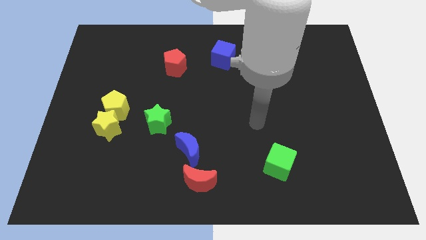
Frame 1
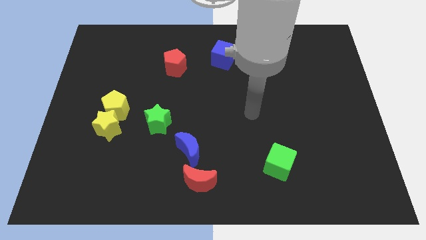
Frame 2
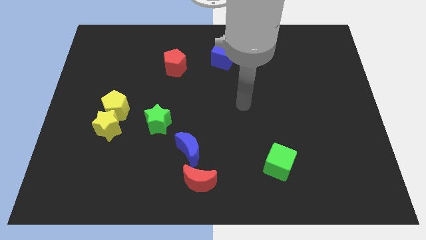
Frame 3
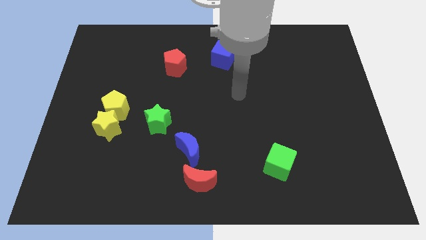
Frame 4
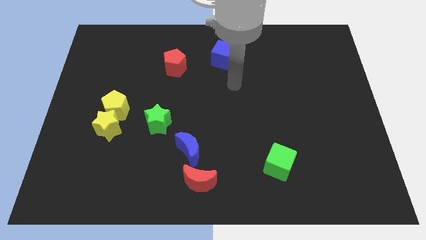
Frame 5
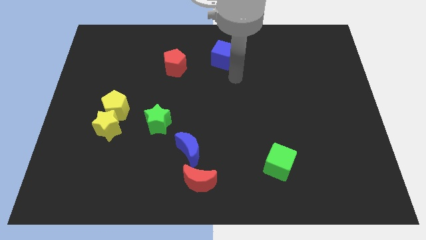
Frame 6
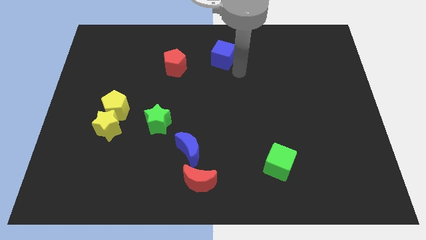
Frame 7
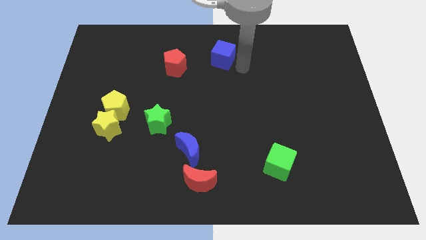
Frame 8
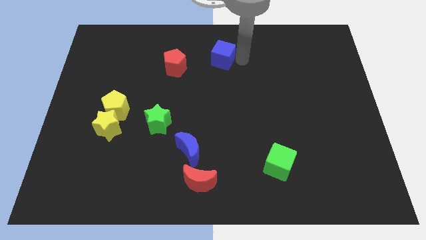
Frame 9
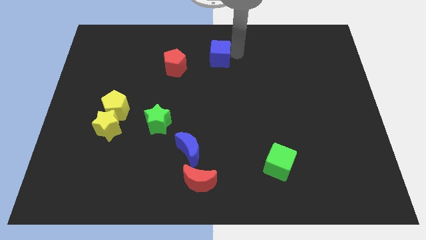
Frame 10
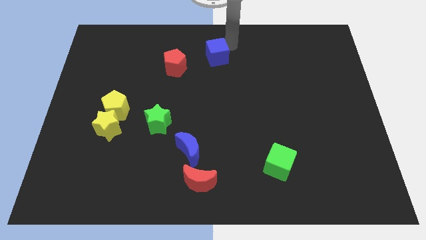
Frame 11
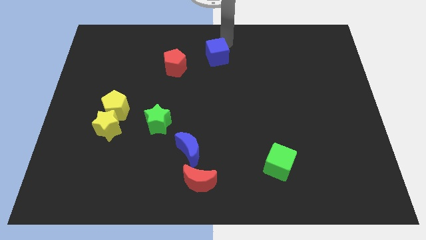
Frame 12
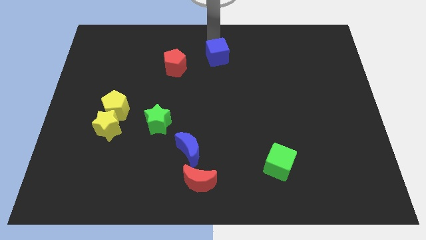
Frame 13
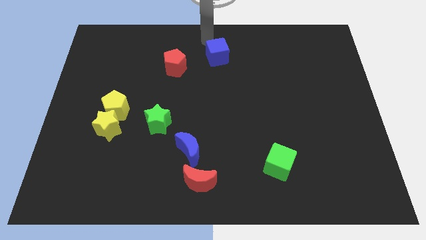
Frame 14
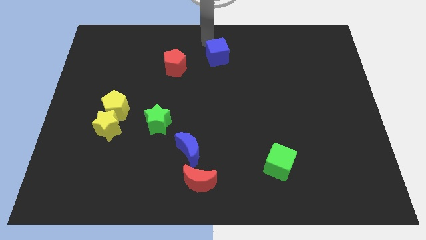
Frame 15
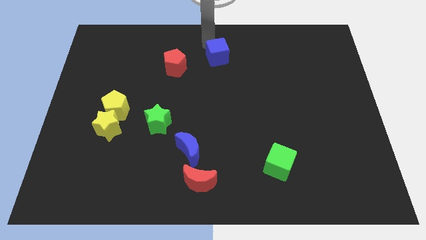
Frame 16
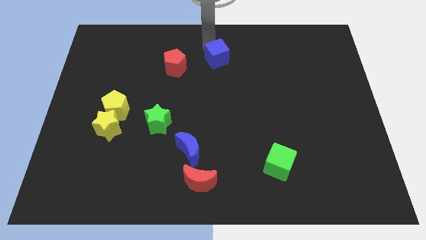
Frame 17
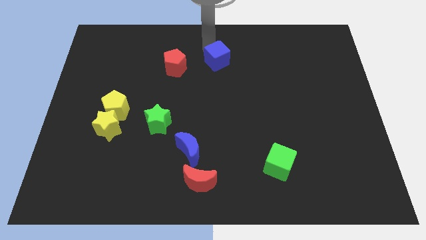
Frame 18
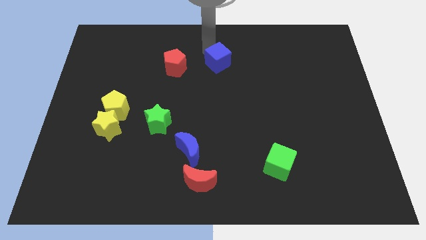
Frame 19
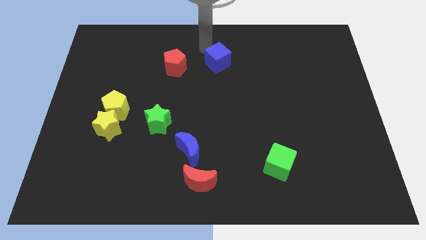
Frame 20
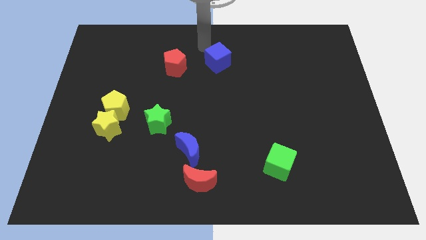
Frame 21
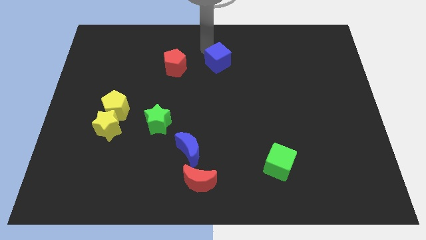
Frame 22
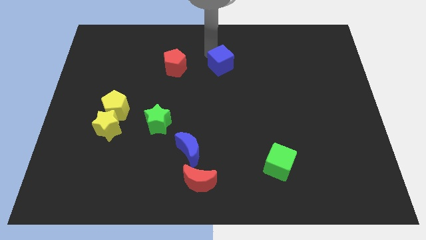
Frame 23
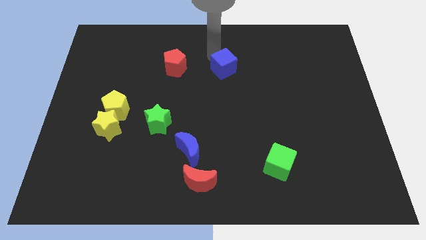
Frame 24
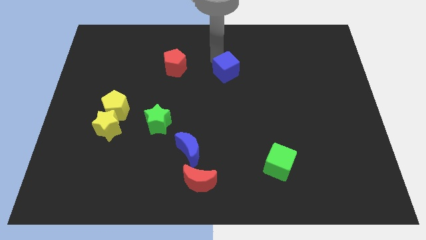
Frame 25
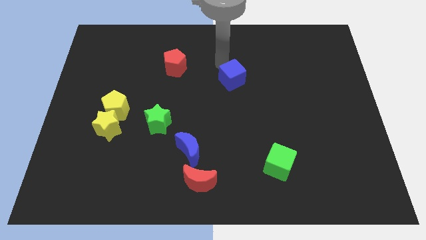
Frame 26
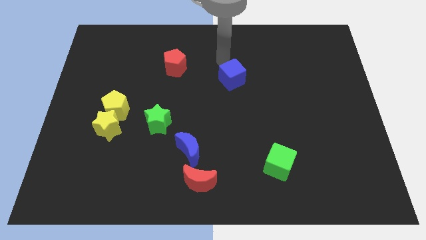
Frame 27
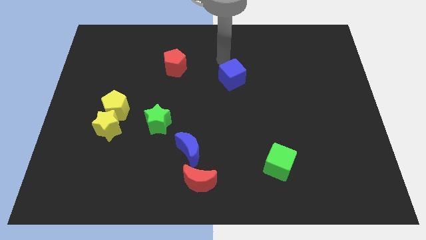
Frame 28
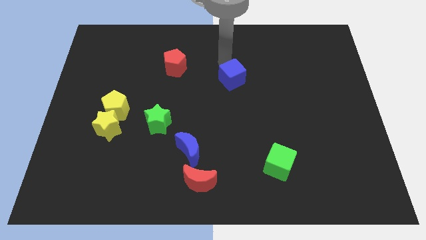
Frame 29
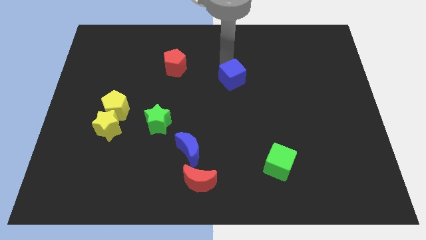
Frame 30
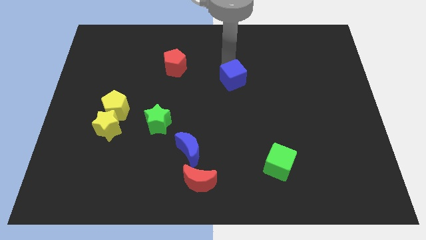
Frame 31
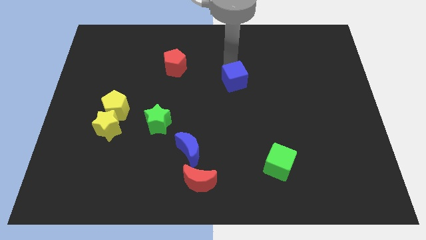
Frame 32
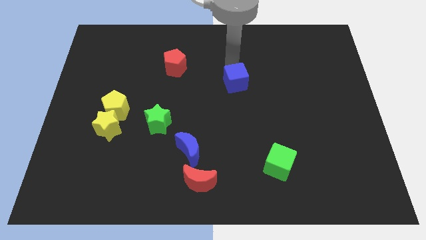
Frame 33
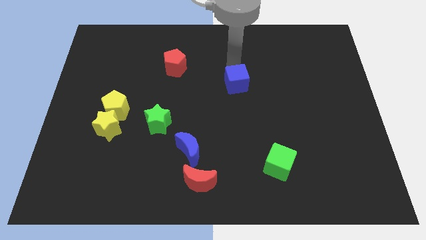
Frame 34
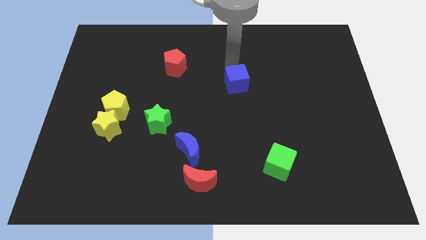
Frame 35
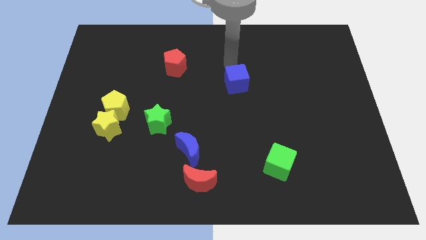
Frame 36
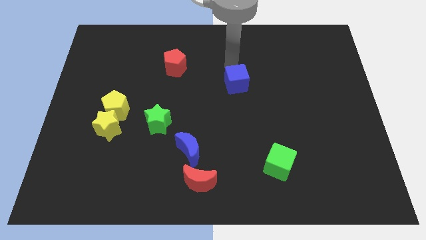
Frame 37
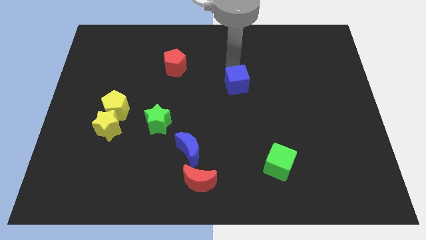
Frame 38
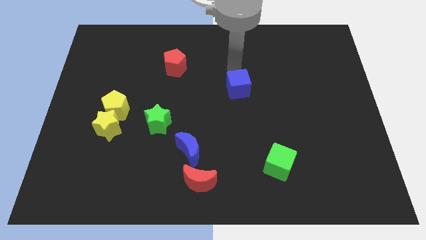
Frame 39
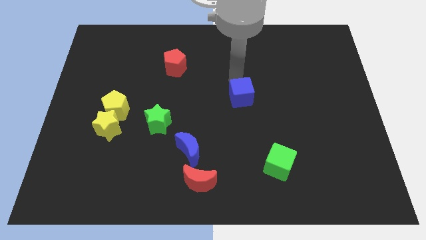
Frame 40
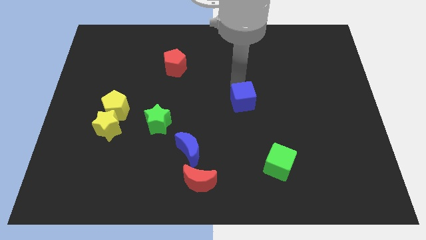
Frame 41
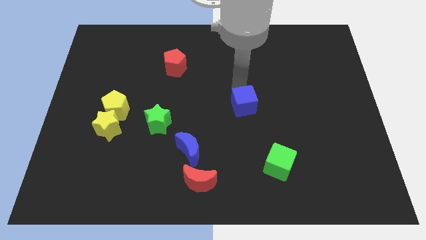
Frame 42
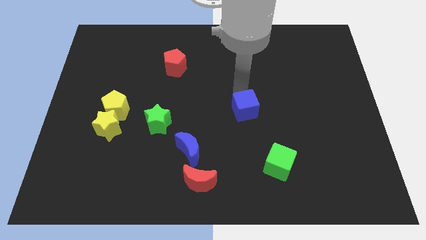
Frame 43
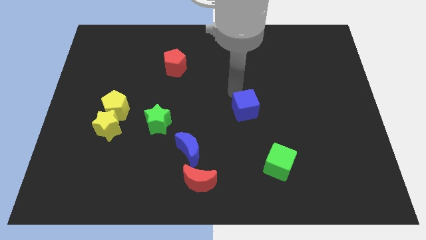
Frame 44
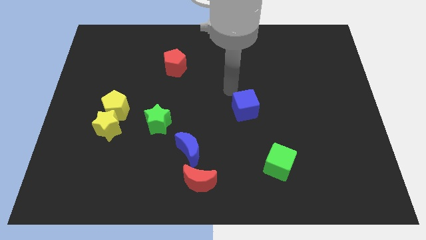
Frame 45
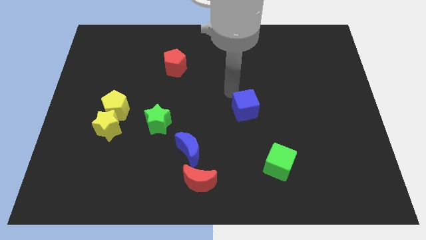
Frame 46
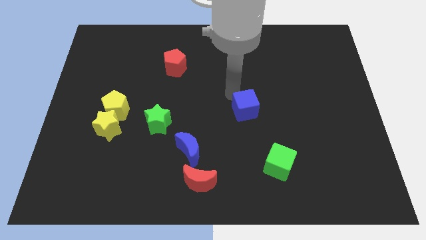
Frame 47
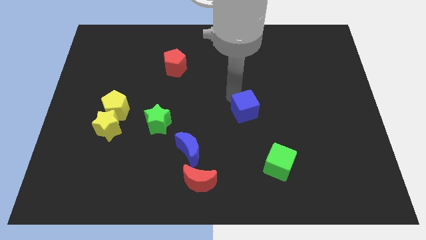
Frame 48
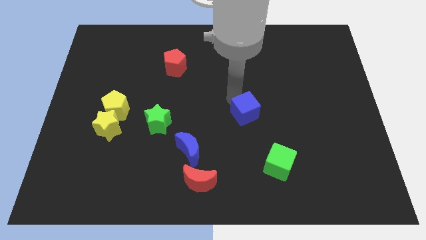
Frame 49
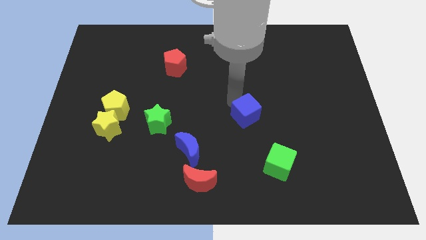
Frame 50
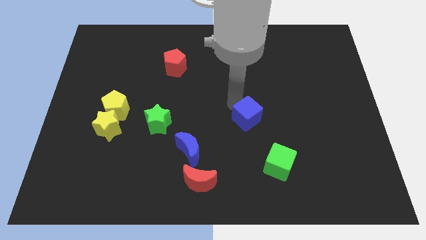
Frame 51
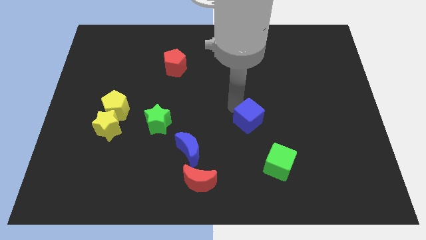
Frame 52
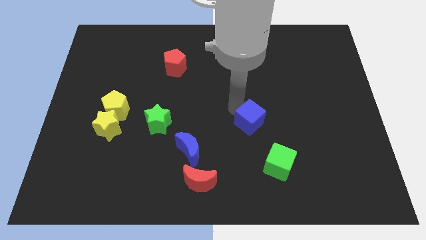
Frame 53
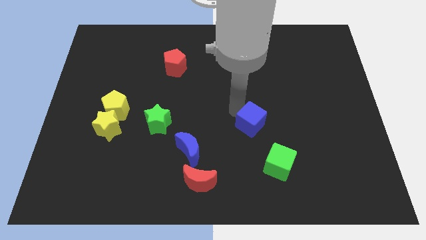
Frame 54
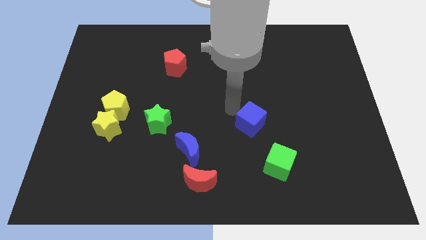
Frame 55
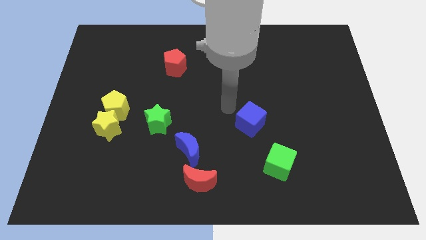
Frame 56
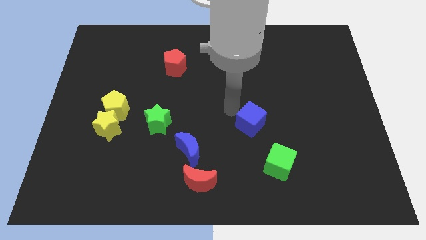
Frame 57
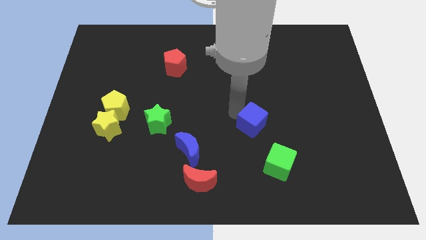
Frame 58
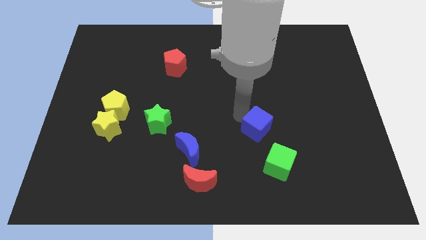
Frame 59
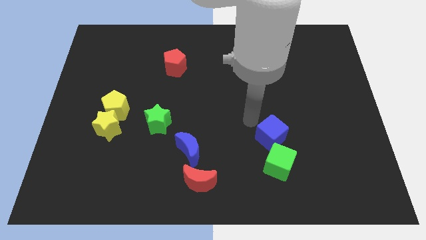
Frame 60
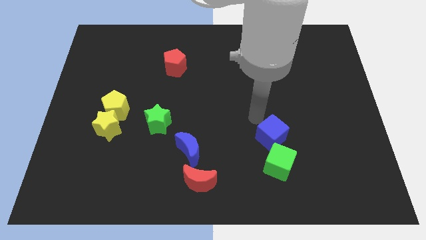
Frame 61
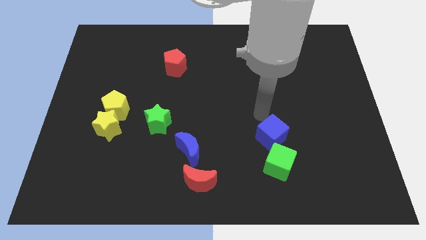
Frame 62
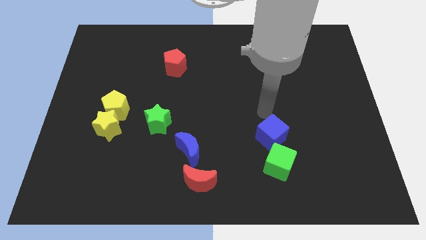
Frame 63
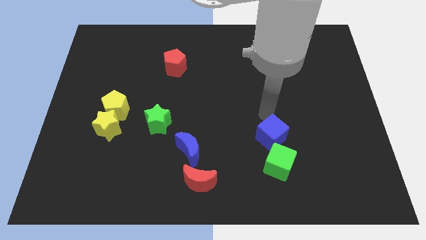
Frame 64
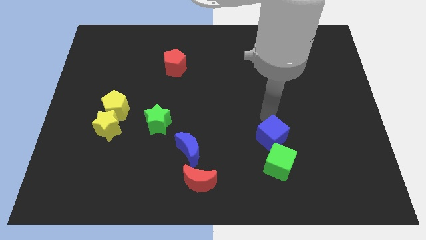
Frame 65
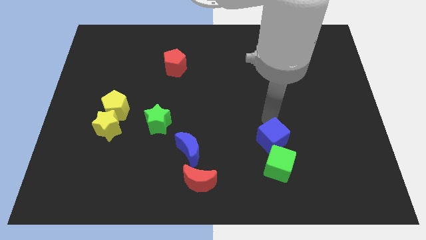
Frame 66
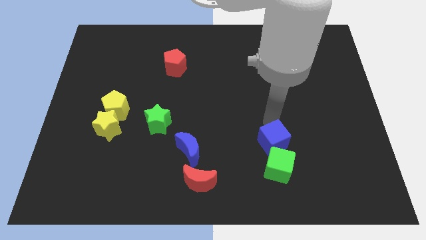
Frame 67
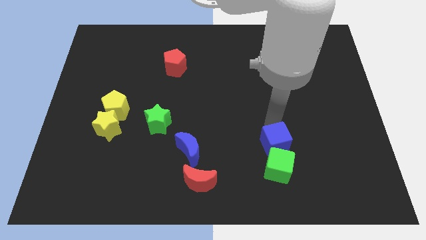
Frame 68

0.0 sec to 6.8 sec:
put the blue cube to the green cube

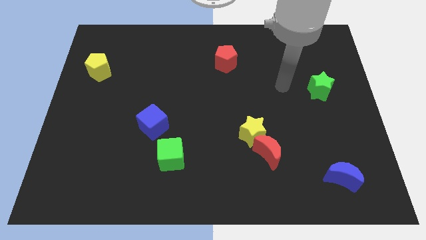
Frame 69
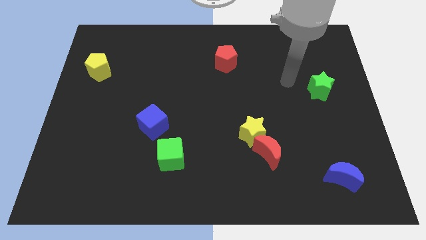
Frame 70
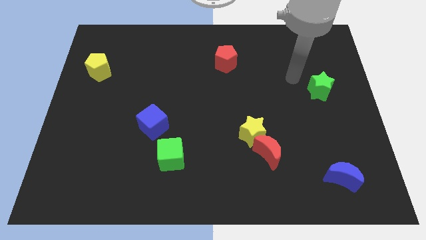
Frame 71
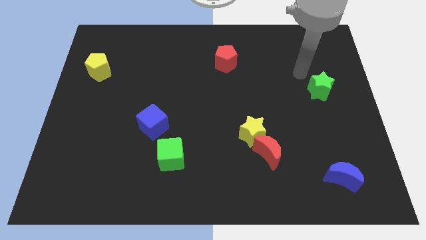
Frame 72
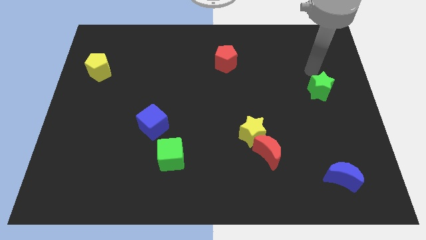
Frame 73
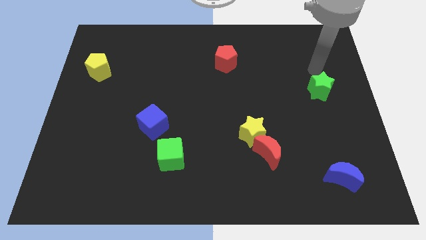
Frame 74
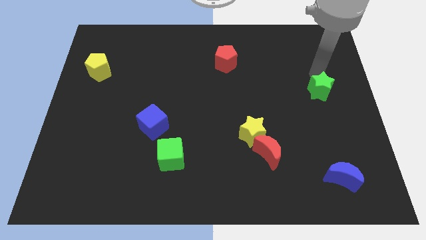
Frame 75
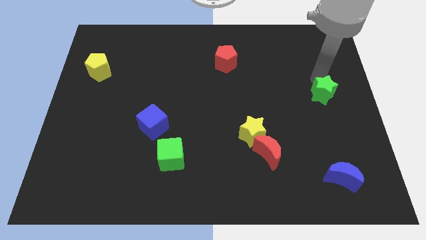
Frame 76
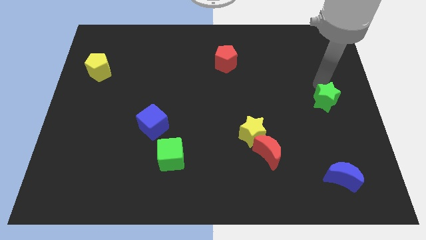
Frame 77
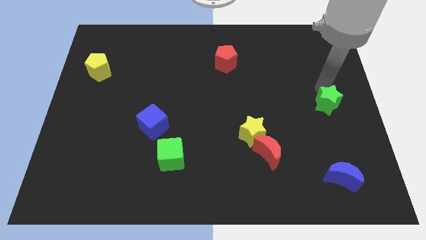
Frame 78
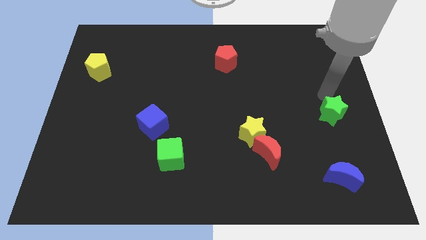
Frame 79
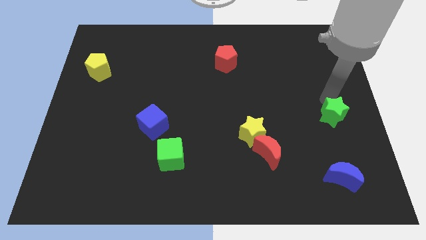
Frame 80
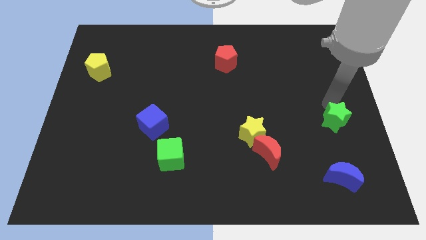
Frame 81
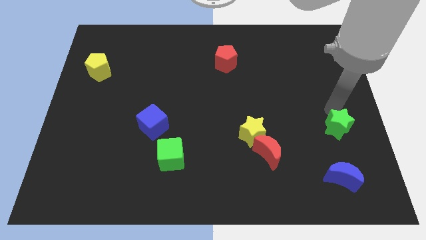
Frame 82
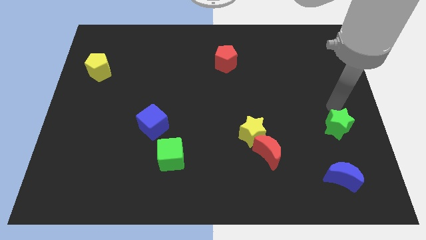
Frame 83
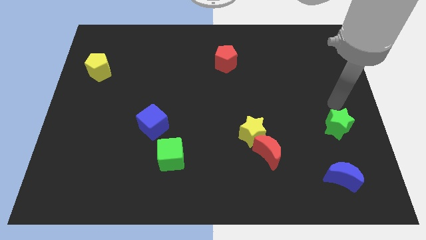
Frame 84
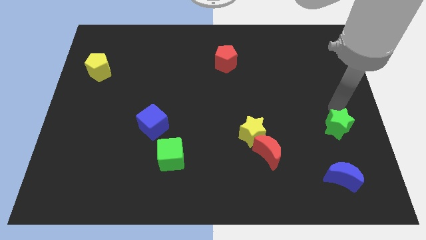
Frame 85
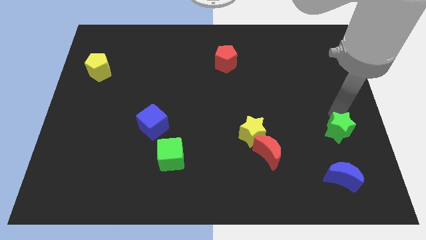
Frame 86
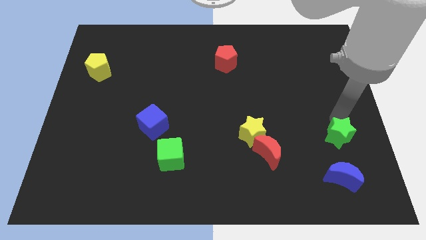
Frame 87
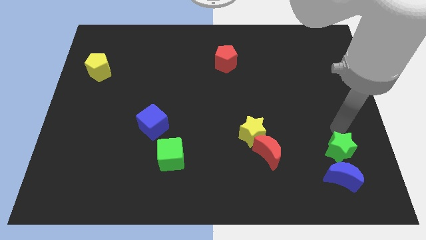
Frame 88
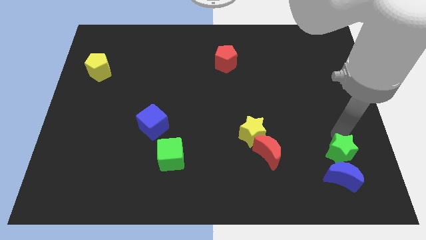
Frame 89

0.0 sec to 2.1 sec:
move the green star towards the blue moon
